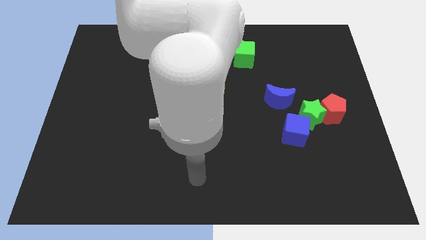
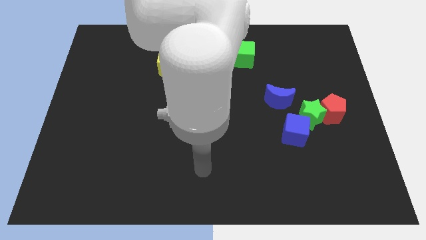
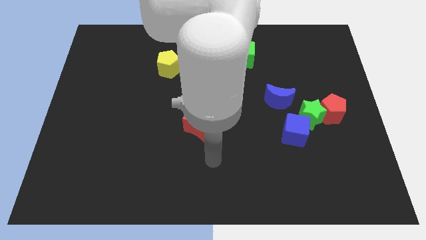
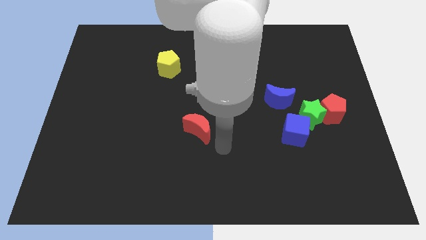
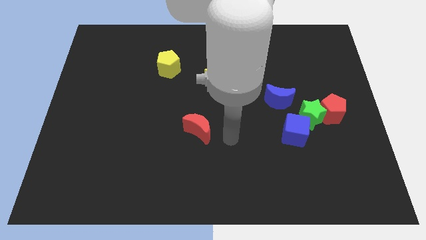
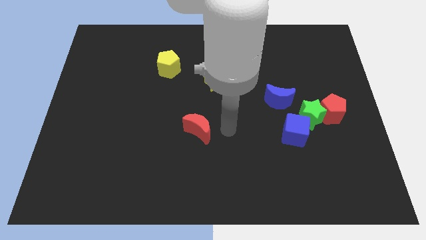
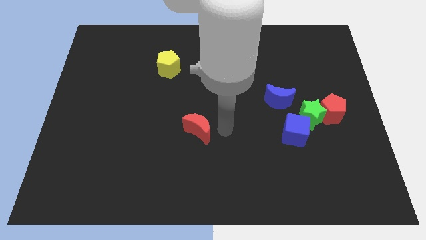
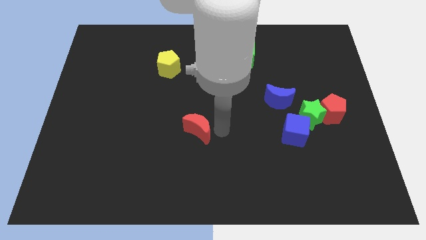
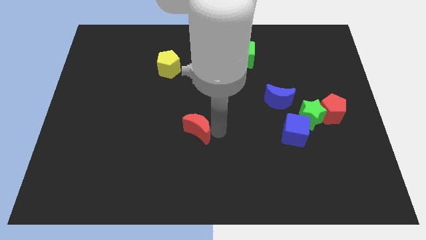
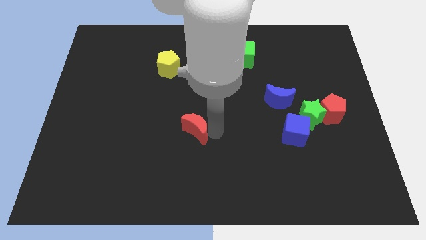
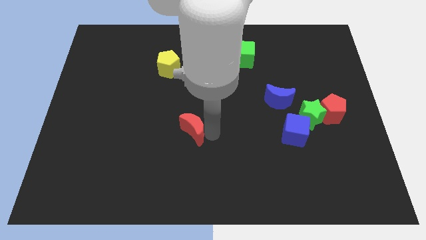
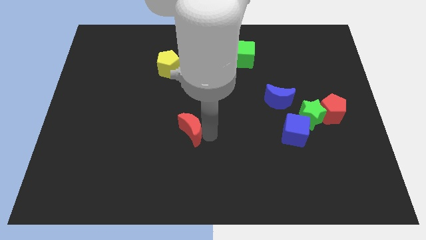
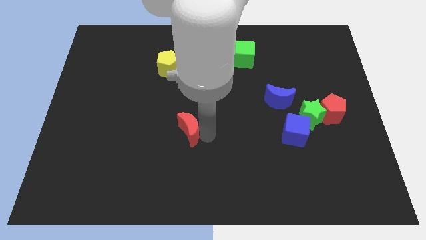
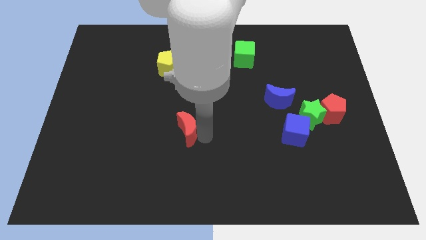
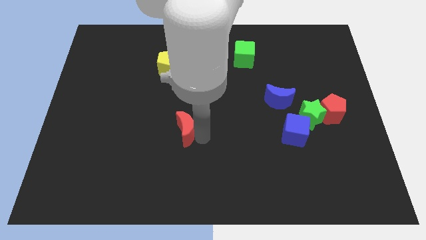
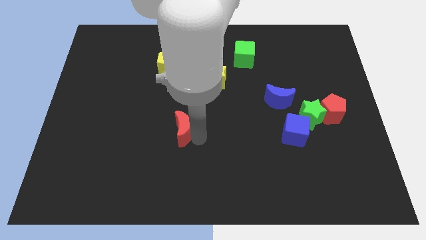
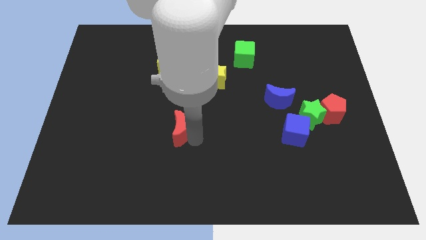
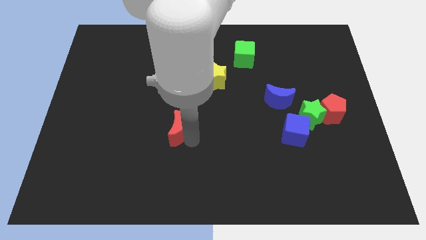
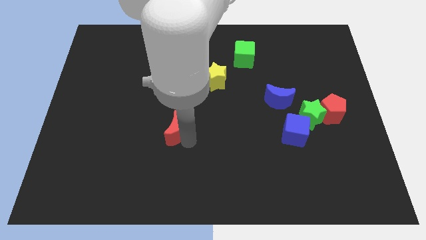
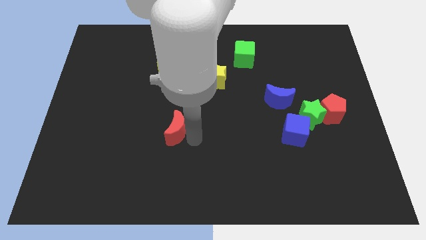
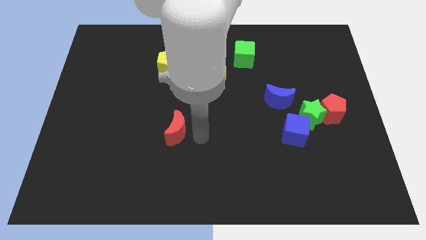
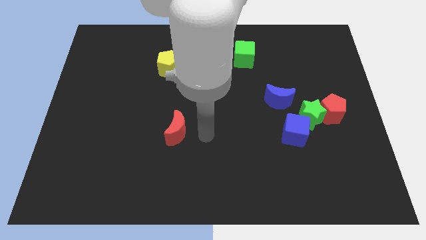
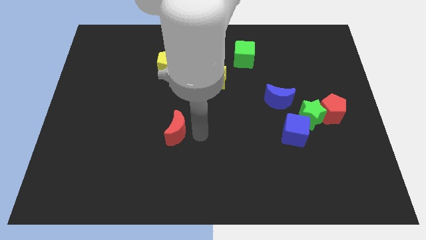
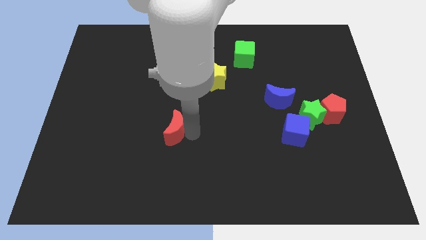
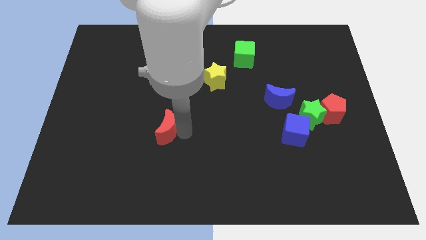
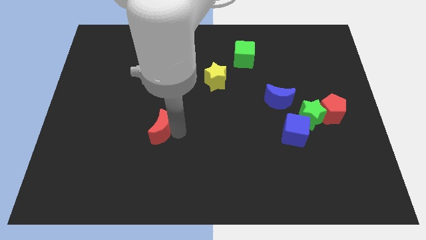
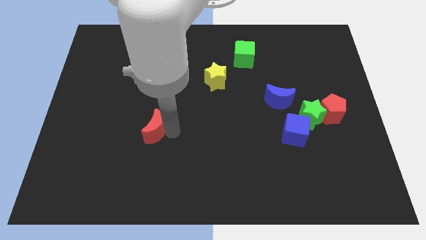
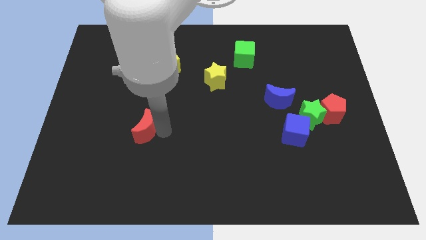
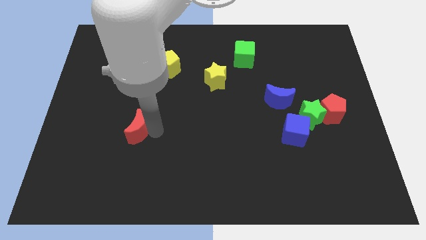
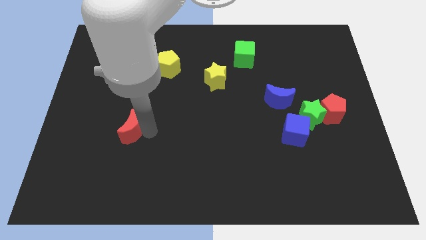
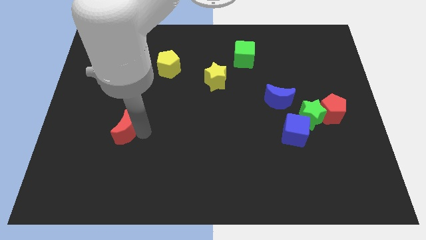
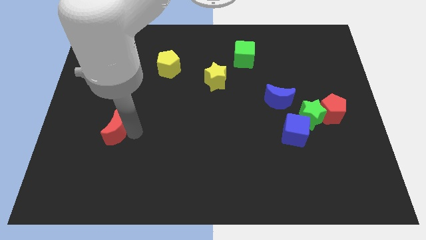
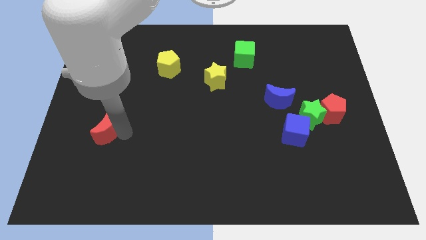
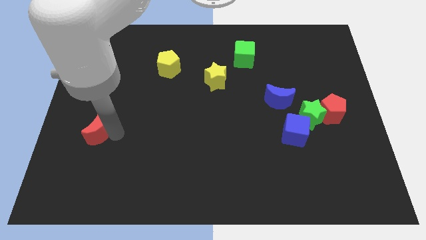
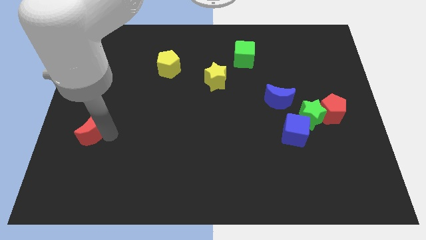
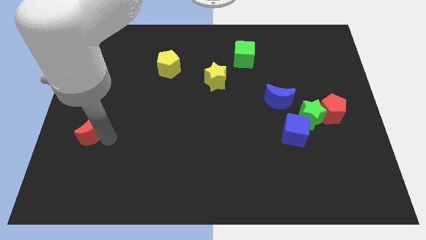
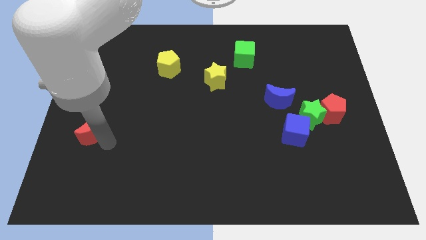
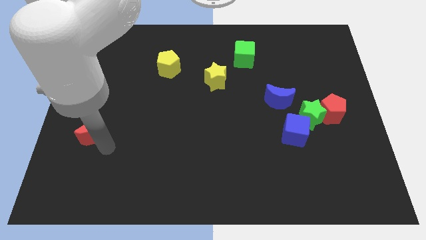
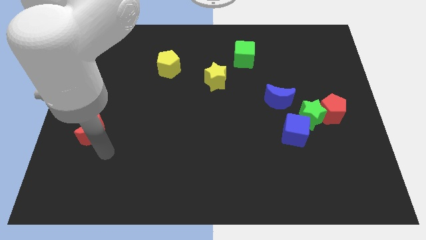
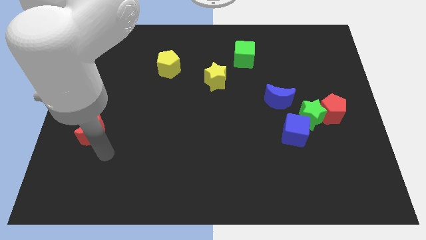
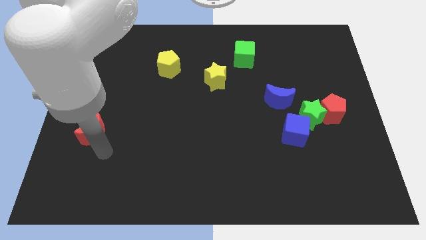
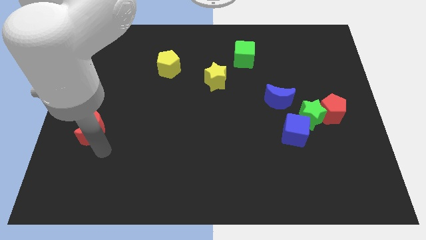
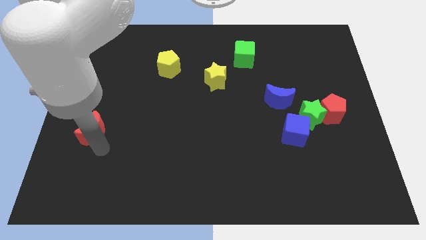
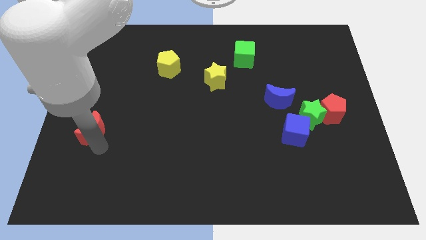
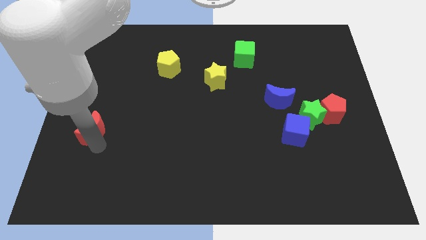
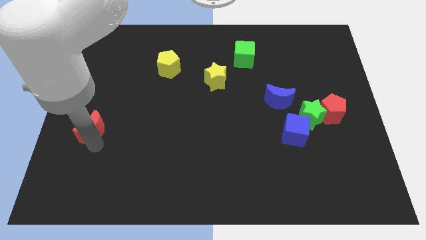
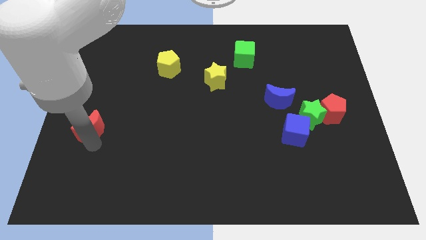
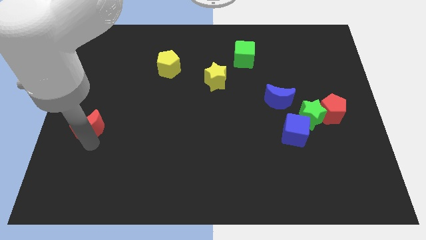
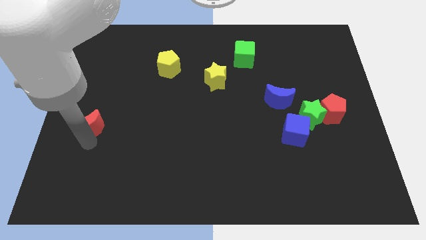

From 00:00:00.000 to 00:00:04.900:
push the red moon to the left side of the board

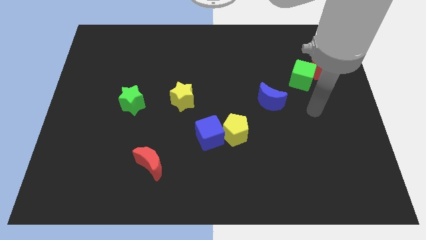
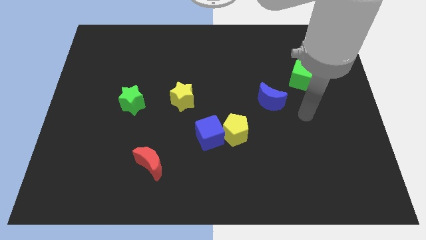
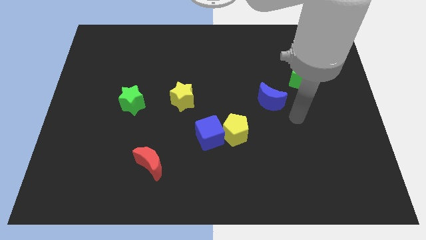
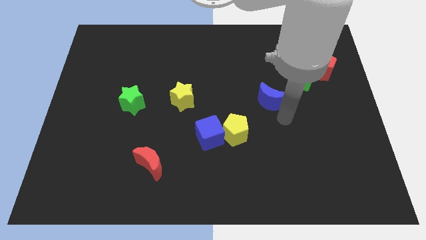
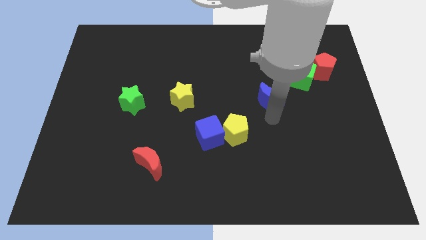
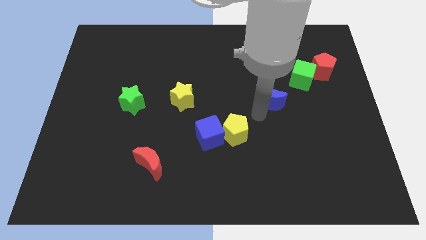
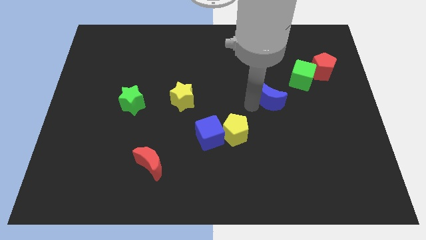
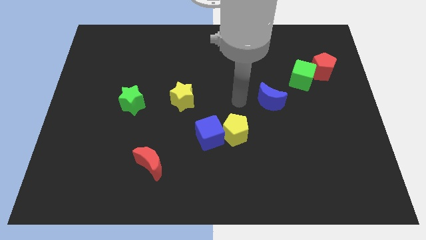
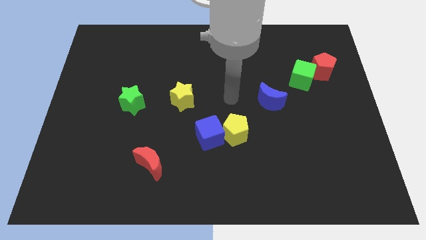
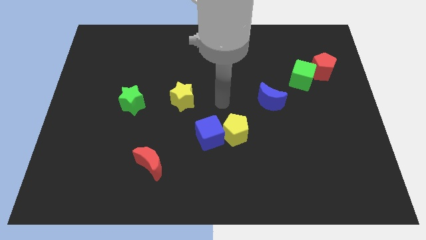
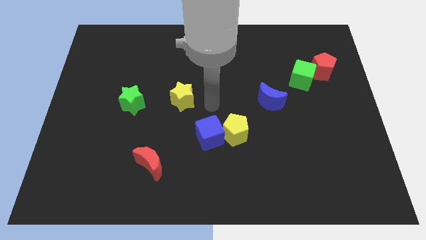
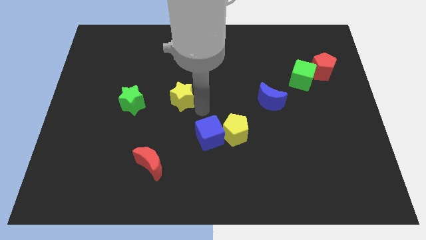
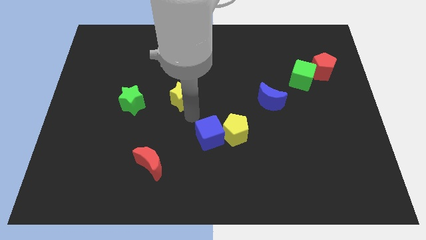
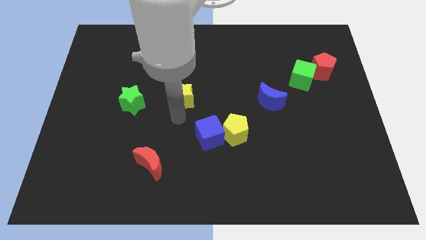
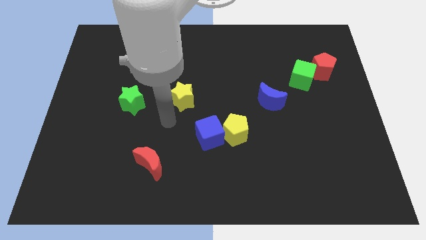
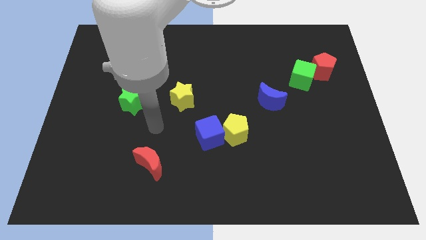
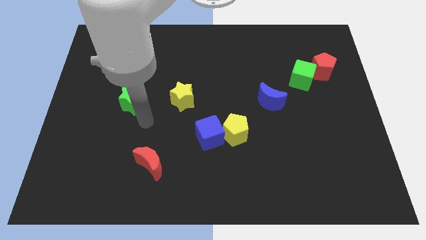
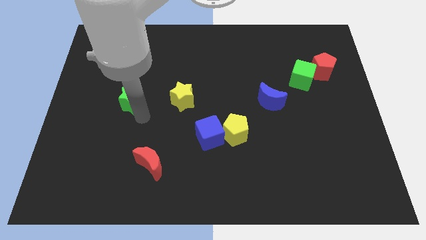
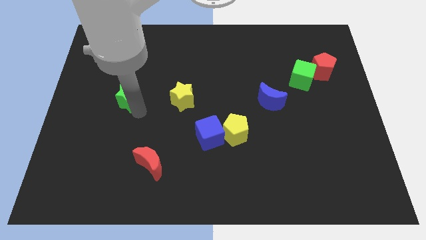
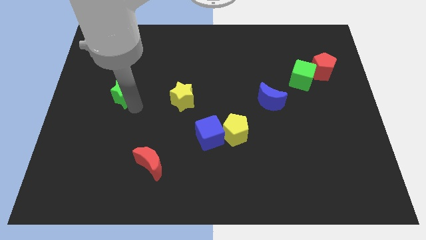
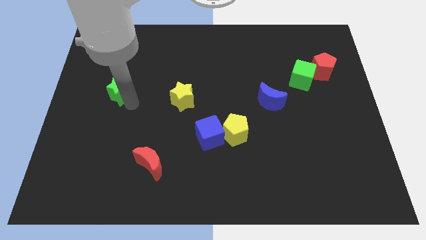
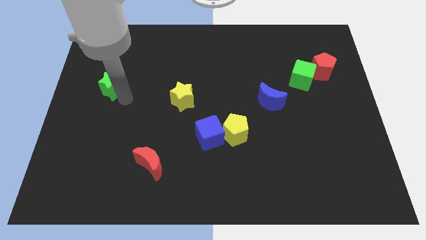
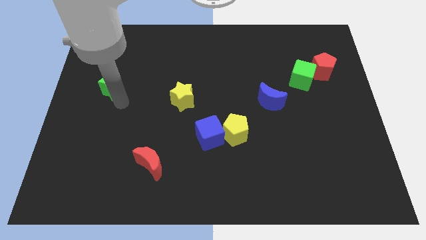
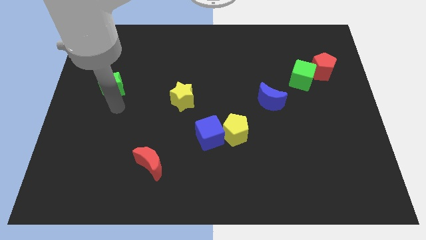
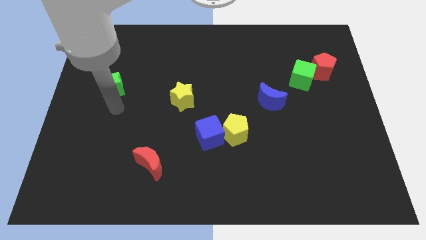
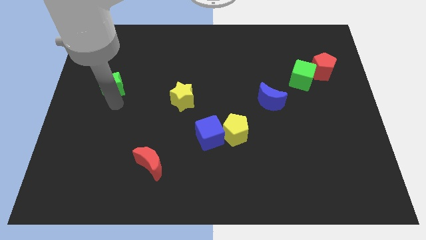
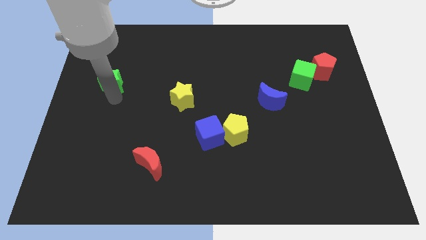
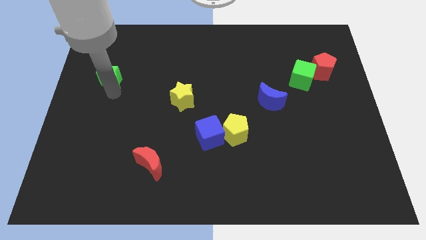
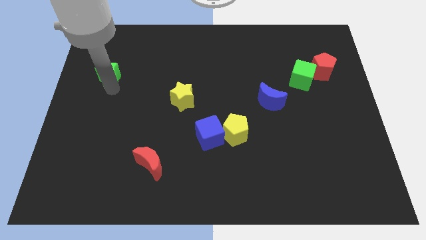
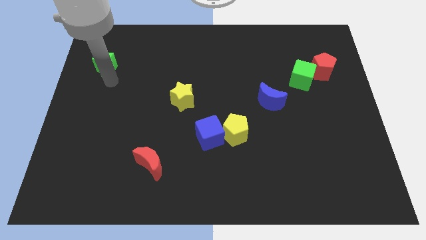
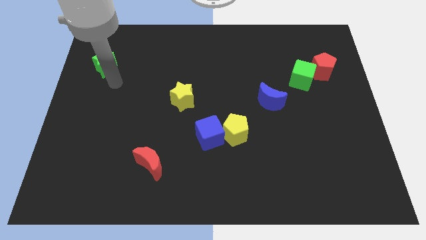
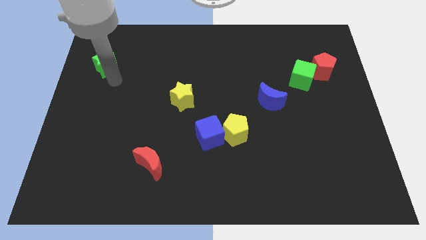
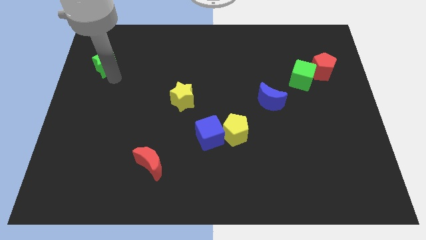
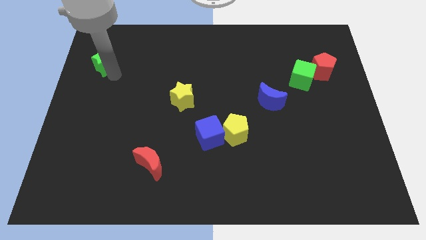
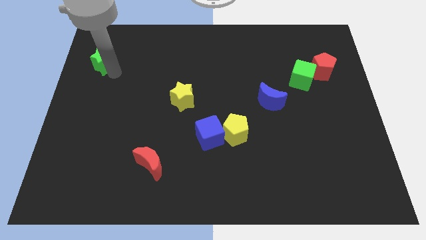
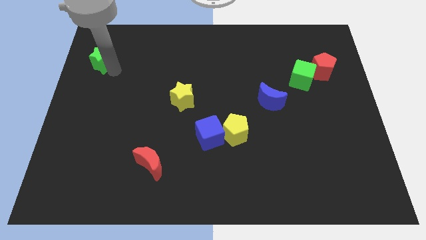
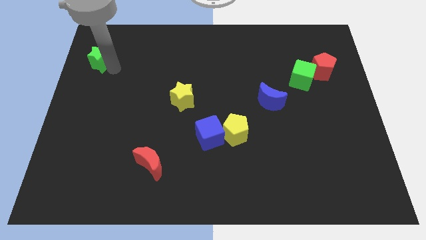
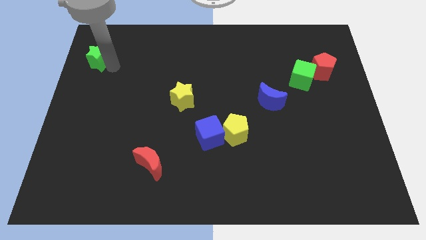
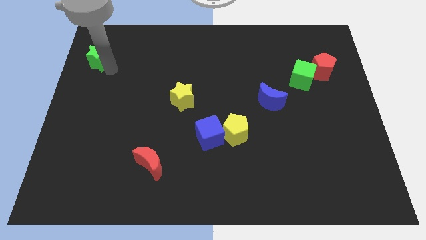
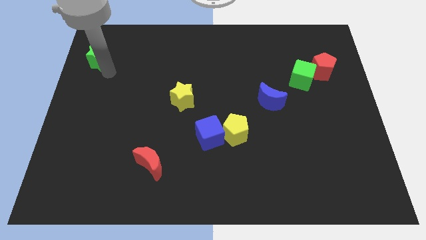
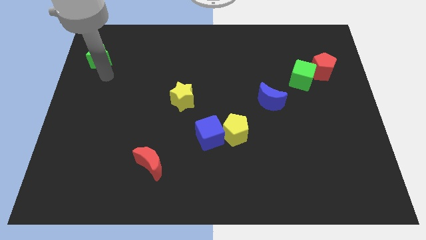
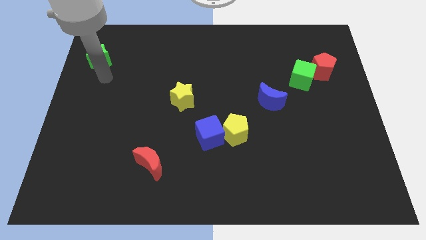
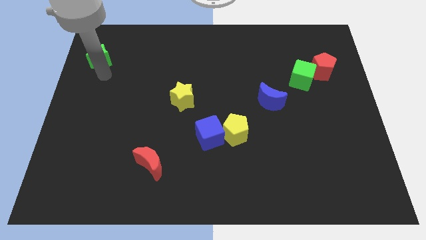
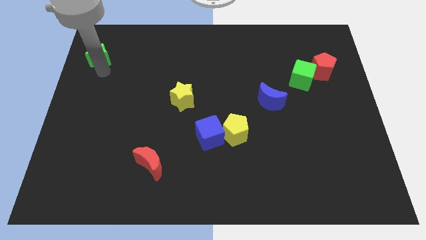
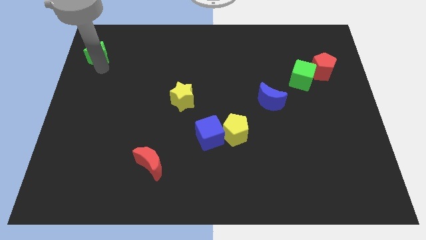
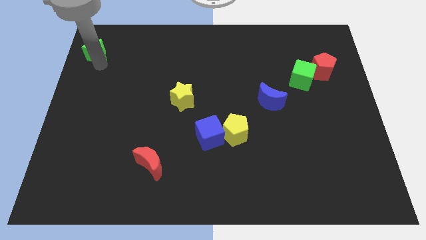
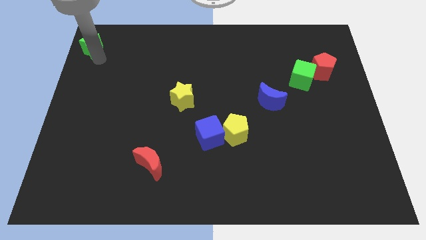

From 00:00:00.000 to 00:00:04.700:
put the green star to the top left
